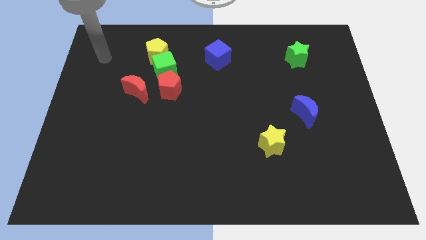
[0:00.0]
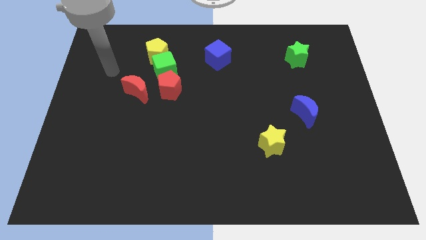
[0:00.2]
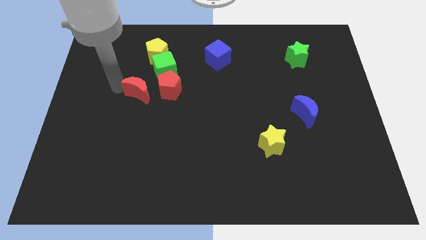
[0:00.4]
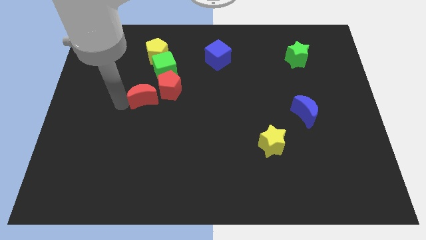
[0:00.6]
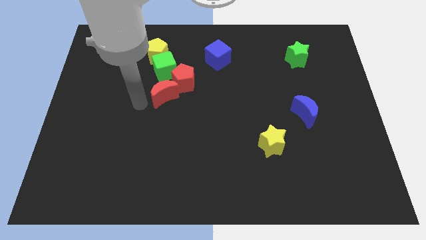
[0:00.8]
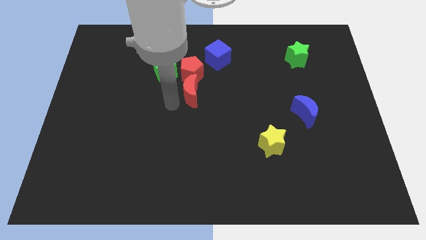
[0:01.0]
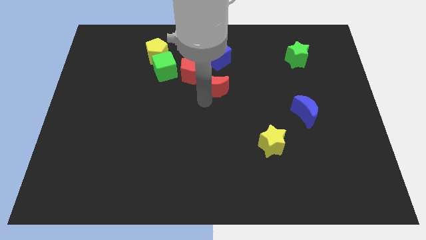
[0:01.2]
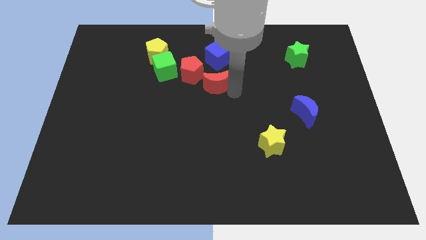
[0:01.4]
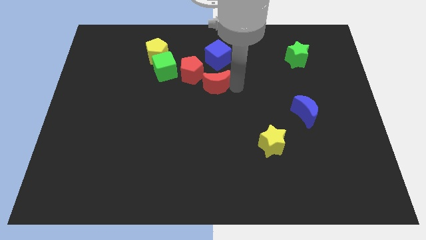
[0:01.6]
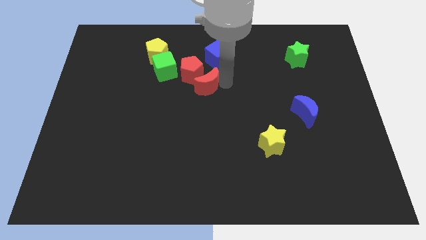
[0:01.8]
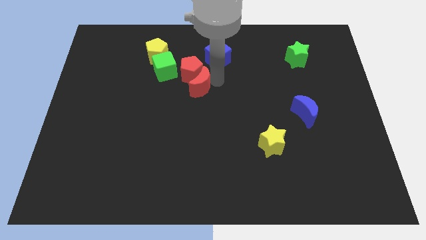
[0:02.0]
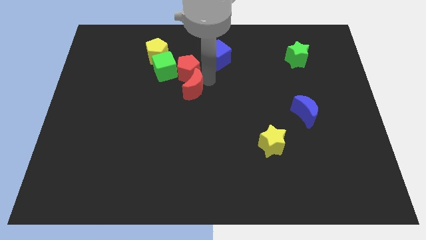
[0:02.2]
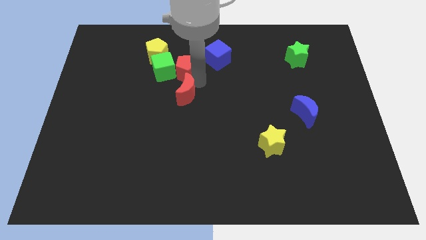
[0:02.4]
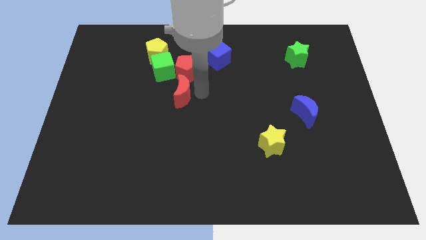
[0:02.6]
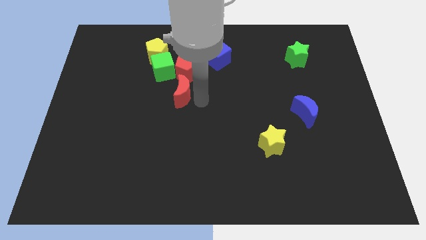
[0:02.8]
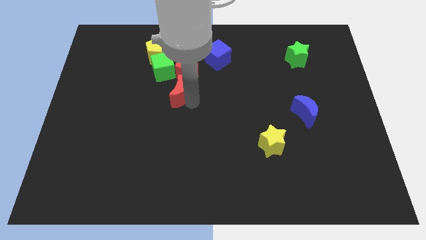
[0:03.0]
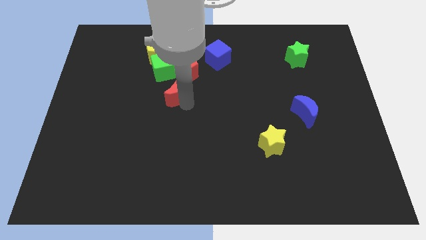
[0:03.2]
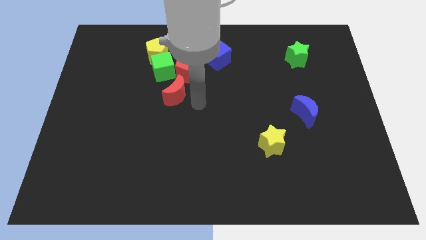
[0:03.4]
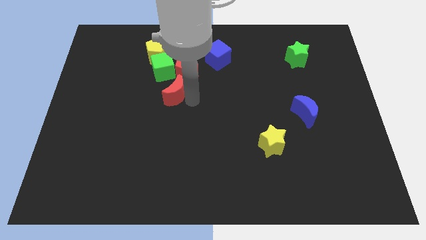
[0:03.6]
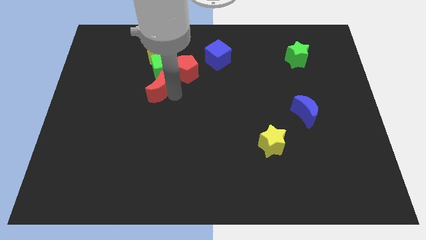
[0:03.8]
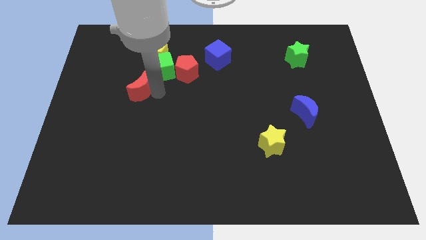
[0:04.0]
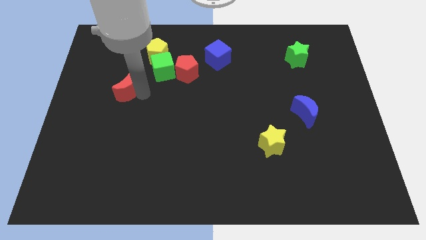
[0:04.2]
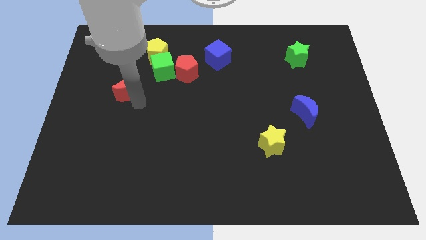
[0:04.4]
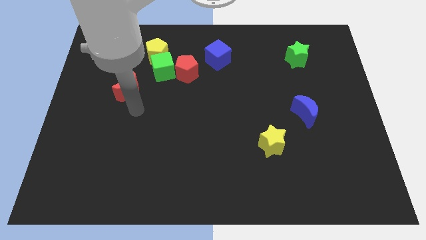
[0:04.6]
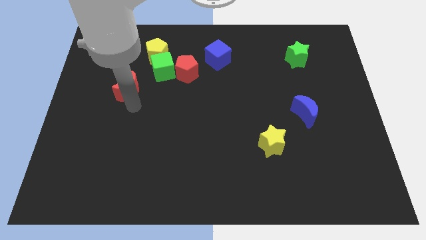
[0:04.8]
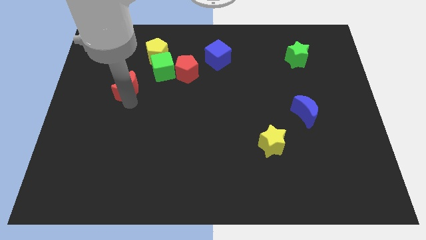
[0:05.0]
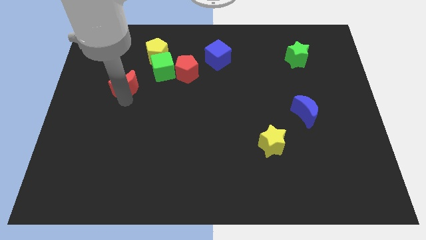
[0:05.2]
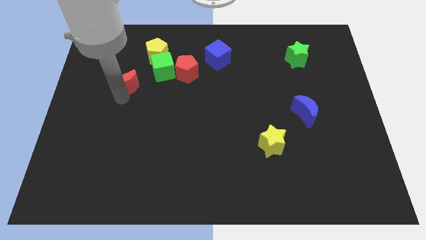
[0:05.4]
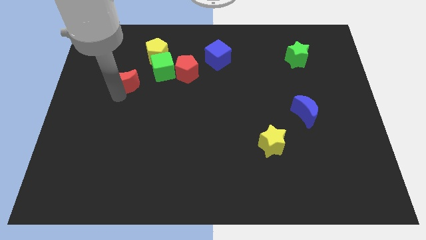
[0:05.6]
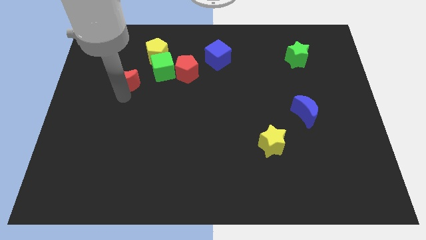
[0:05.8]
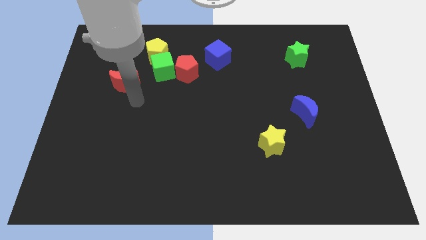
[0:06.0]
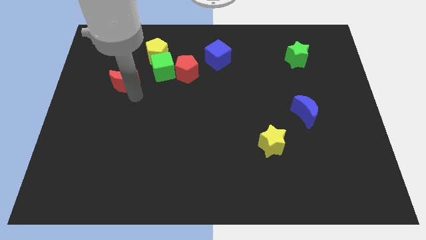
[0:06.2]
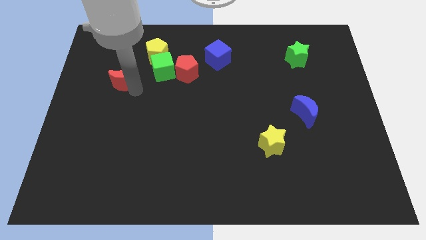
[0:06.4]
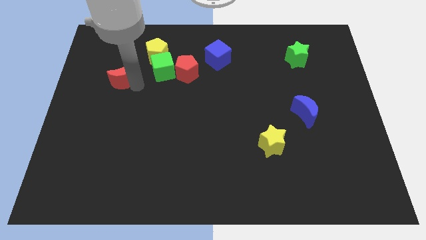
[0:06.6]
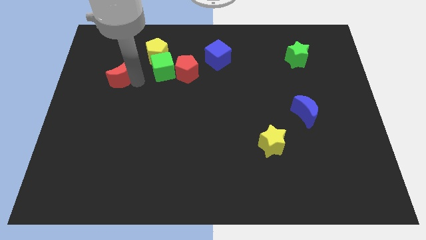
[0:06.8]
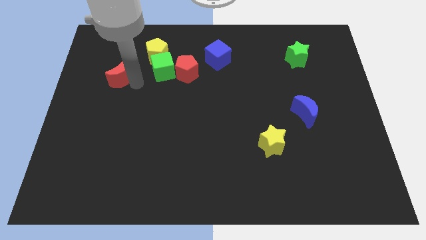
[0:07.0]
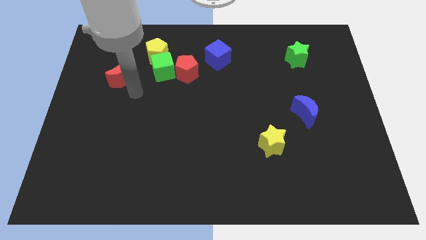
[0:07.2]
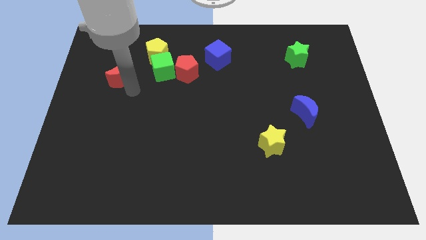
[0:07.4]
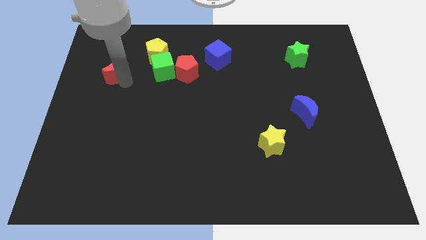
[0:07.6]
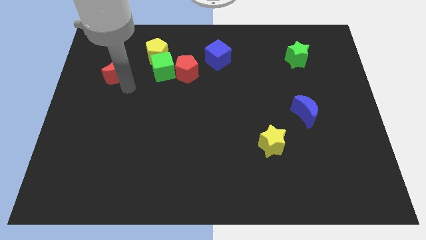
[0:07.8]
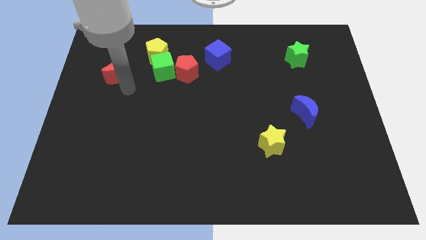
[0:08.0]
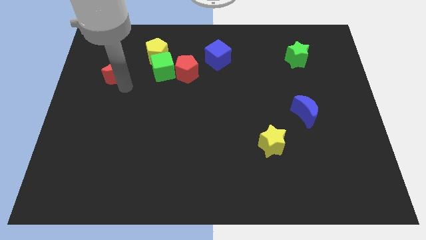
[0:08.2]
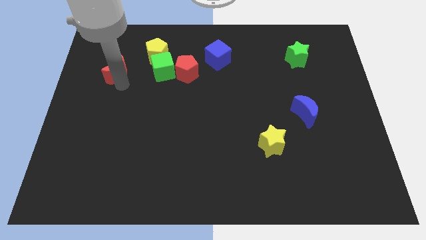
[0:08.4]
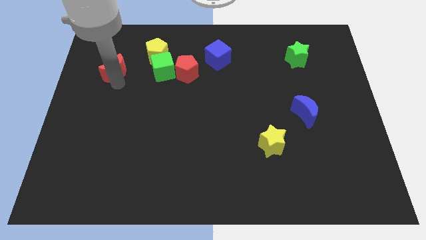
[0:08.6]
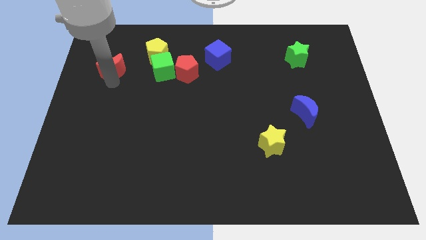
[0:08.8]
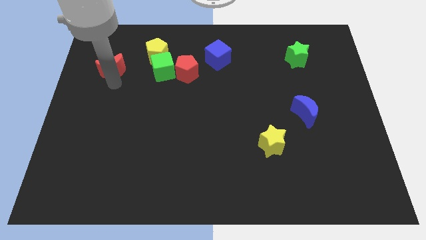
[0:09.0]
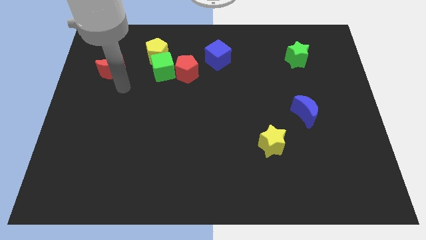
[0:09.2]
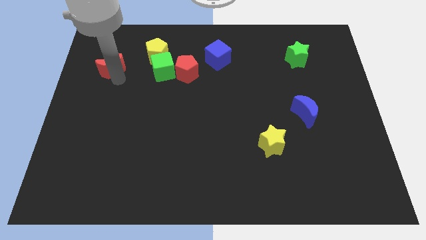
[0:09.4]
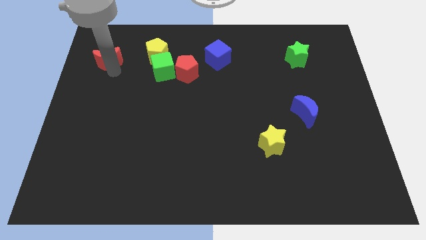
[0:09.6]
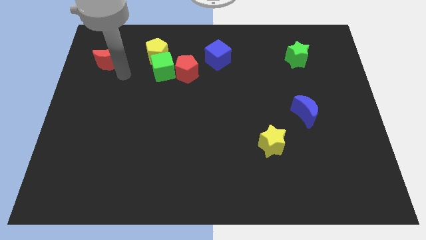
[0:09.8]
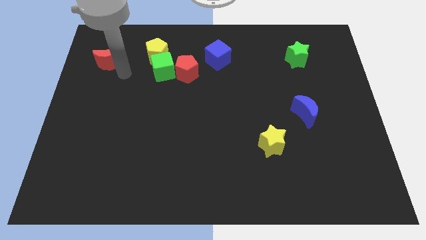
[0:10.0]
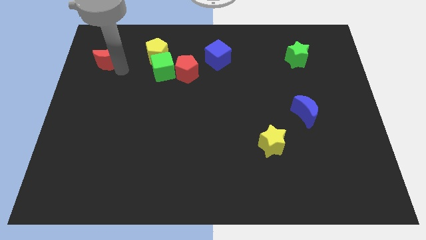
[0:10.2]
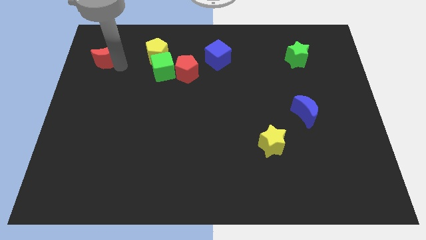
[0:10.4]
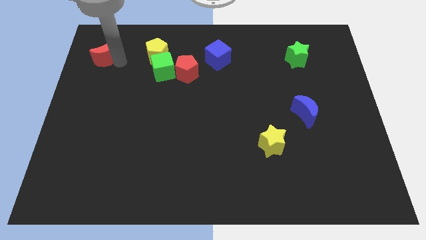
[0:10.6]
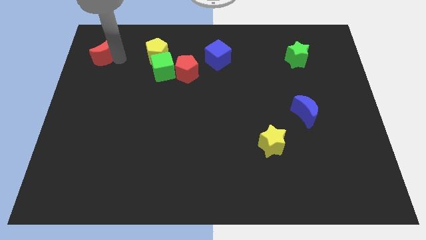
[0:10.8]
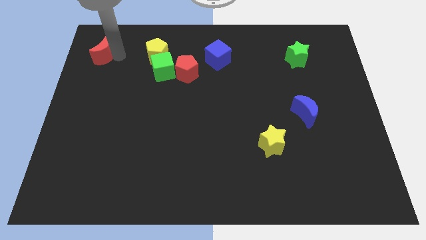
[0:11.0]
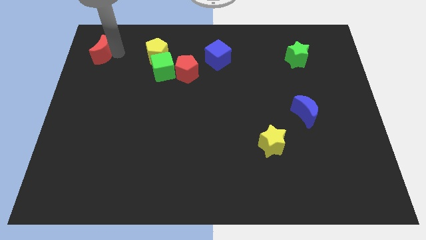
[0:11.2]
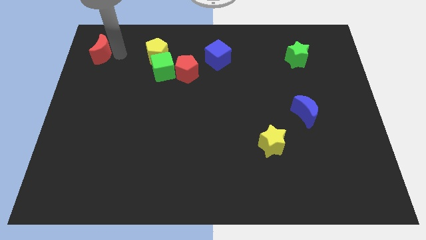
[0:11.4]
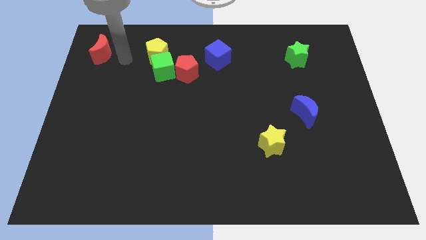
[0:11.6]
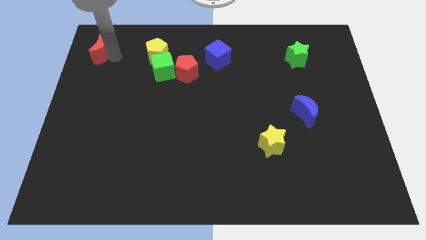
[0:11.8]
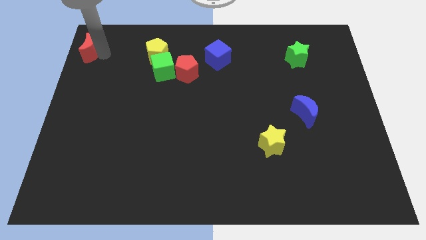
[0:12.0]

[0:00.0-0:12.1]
slide the red moon to the top left of the board

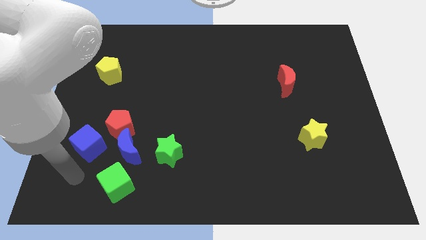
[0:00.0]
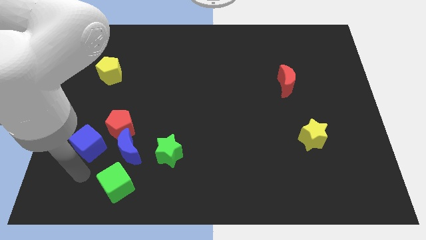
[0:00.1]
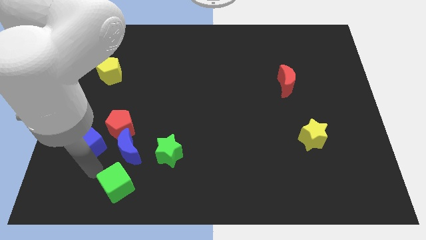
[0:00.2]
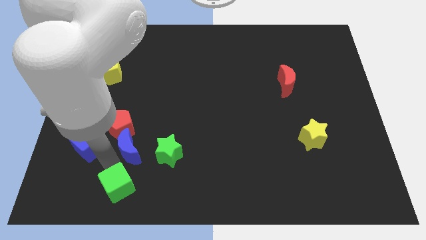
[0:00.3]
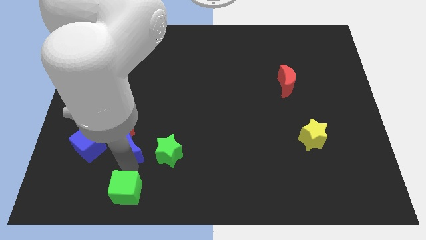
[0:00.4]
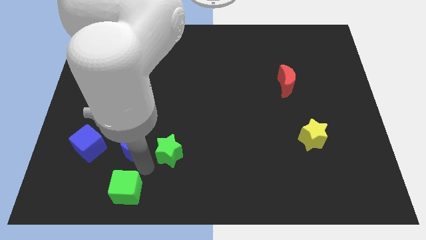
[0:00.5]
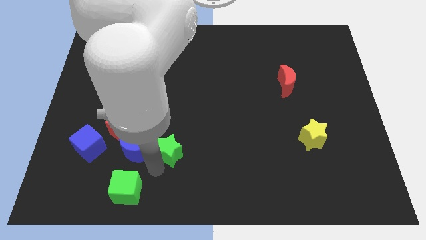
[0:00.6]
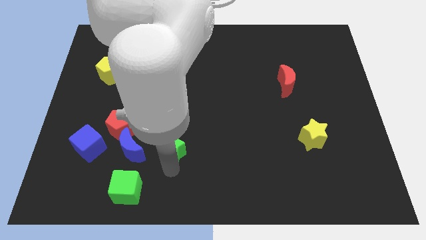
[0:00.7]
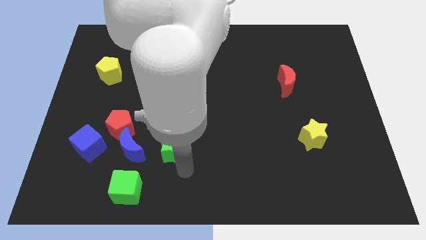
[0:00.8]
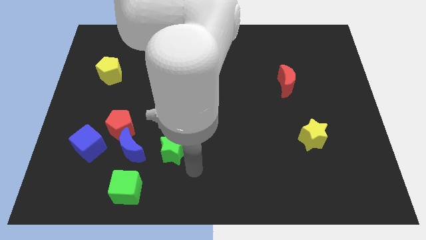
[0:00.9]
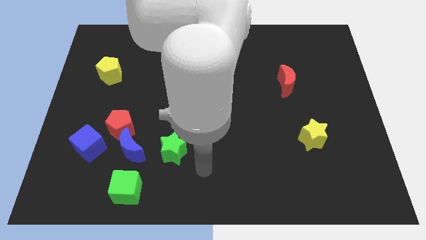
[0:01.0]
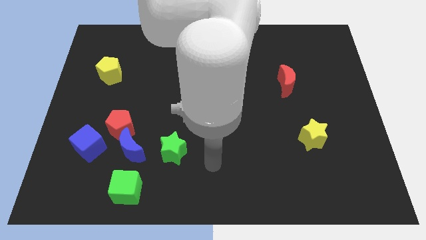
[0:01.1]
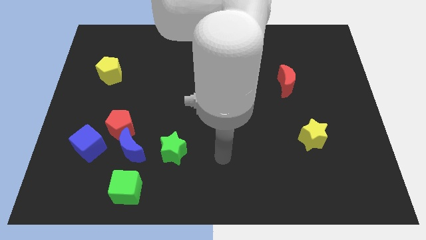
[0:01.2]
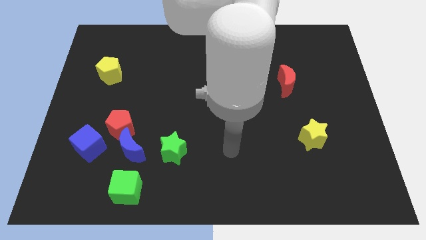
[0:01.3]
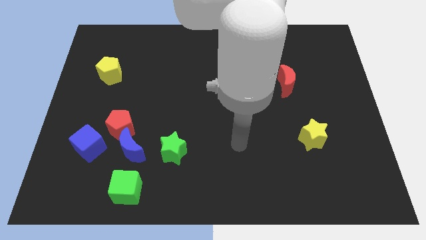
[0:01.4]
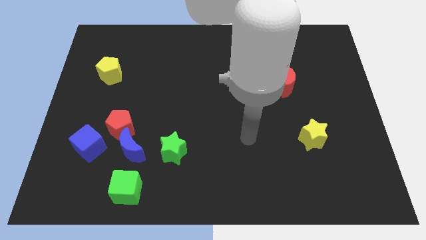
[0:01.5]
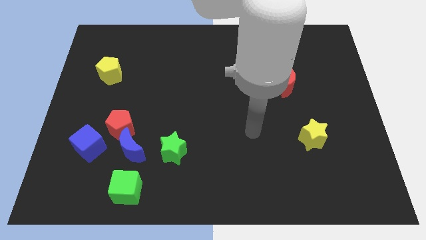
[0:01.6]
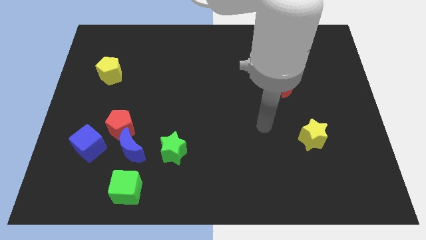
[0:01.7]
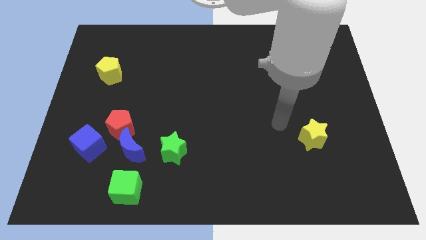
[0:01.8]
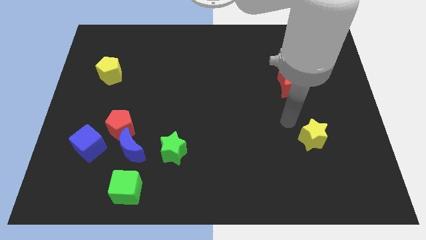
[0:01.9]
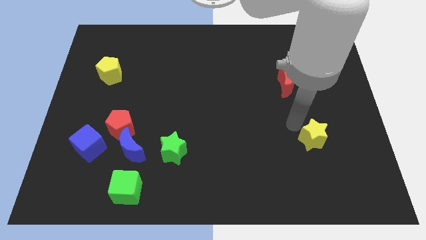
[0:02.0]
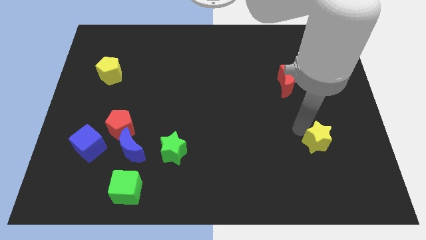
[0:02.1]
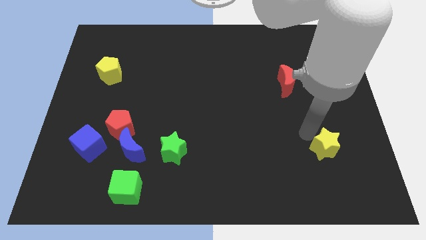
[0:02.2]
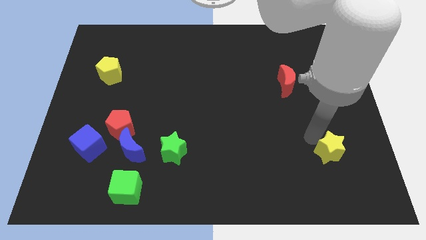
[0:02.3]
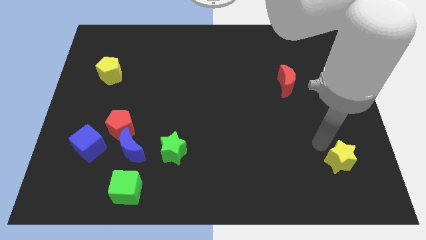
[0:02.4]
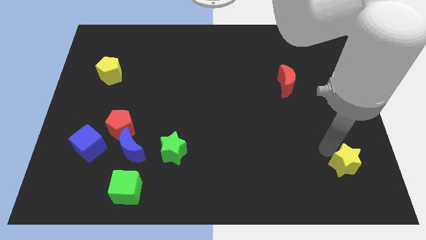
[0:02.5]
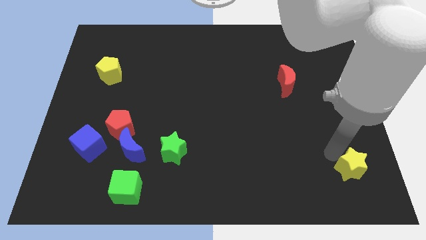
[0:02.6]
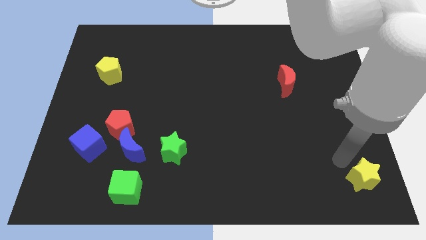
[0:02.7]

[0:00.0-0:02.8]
slide the yellow star to the bottom right of the board
